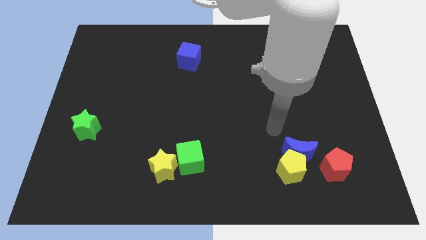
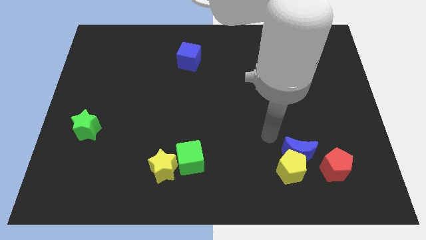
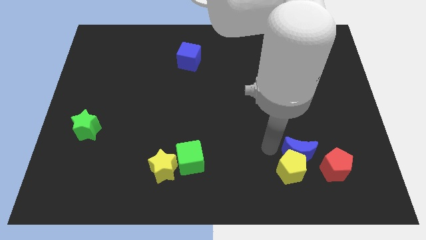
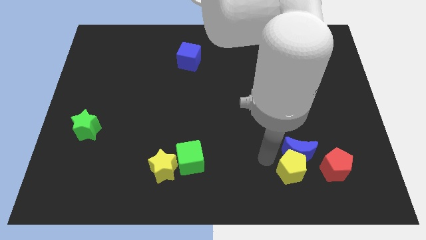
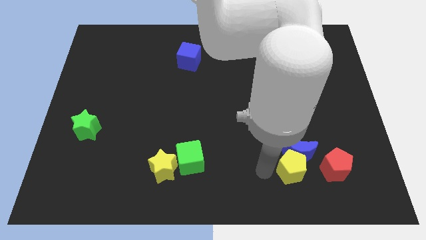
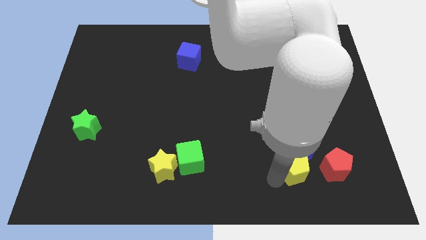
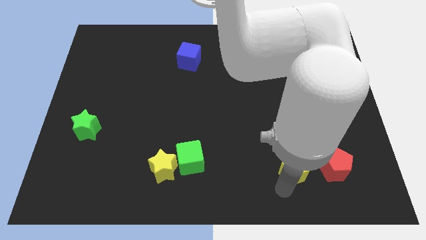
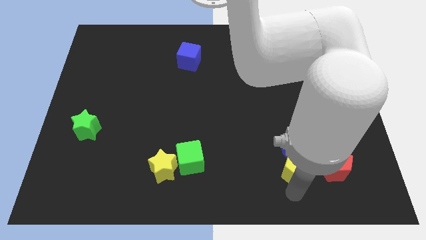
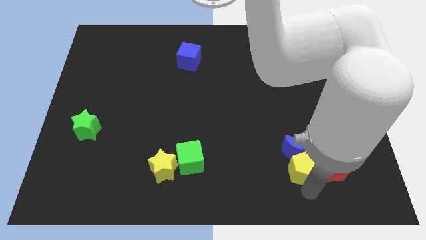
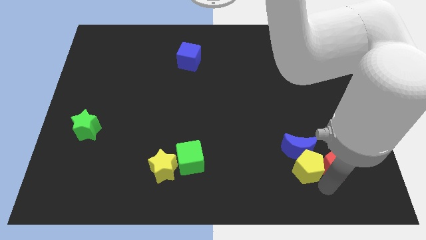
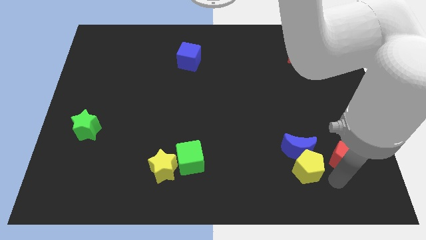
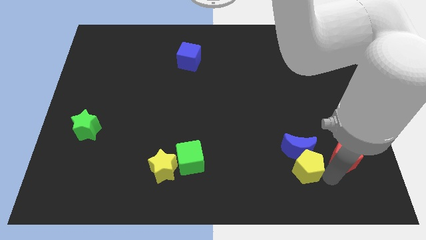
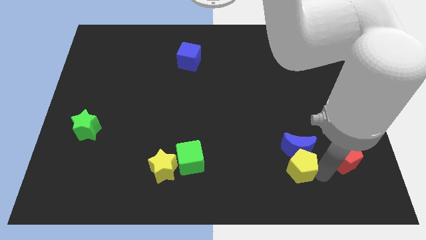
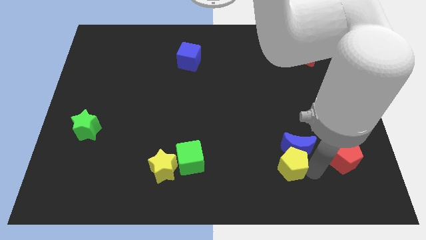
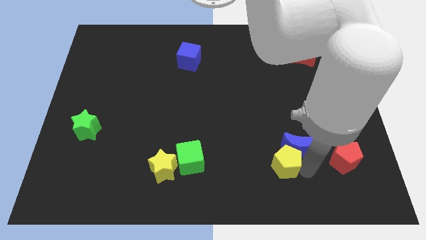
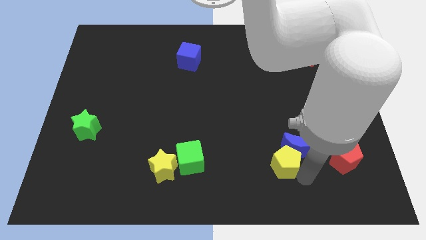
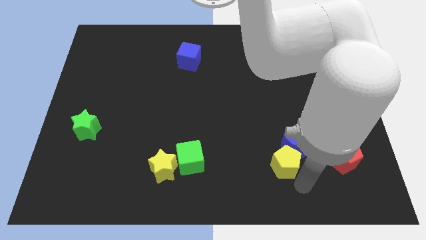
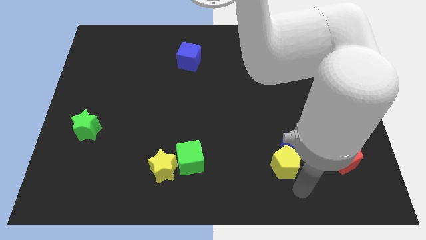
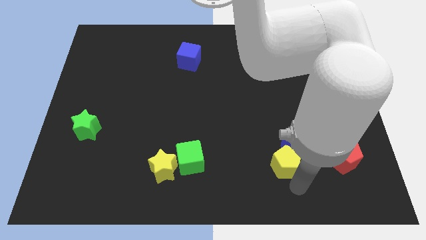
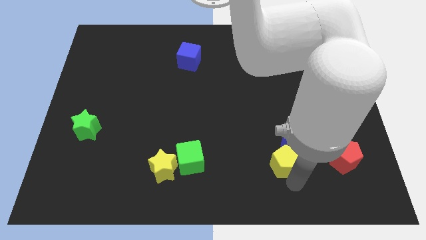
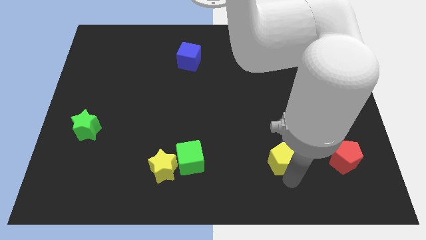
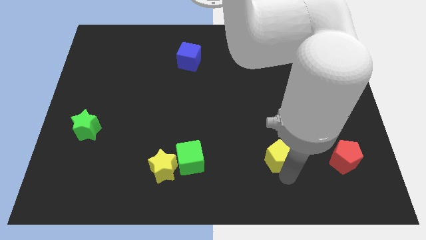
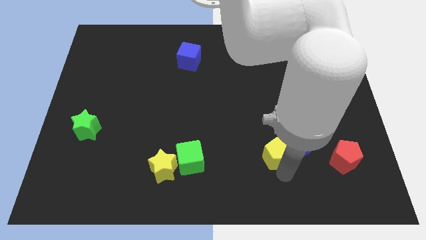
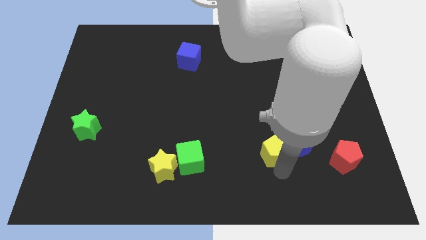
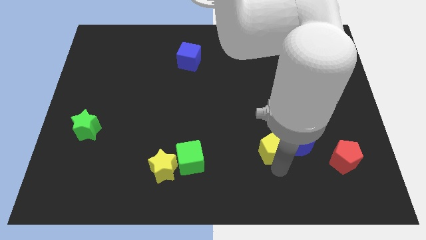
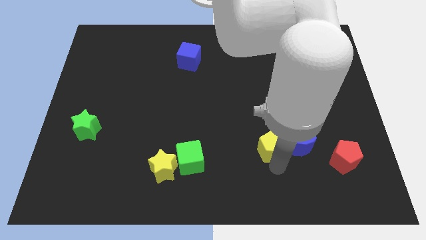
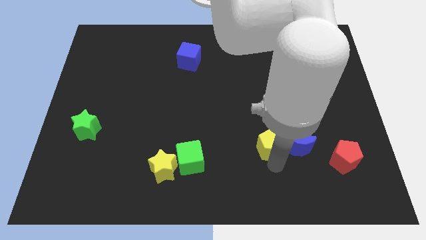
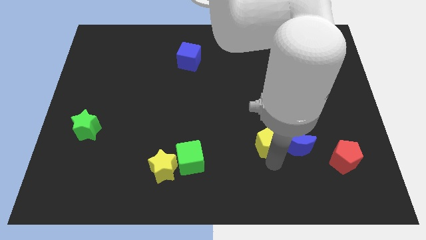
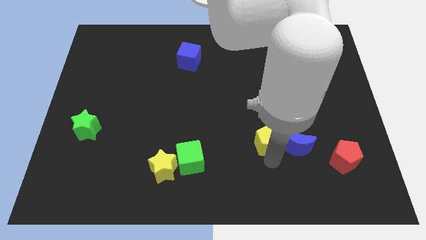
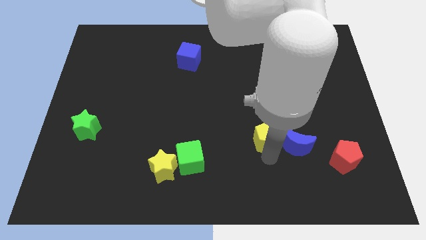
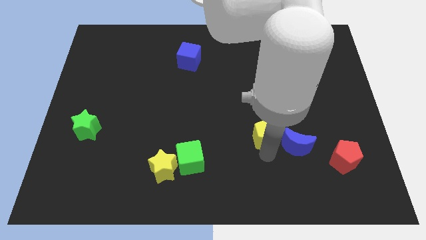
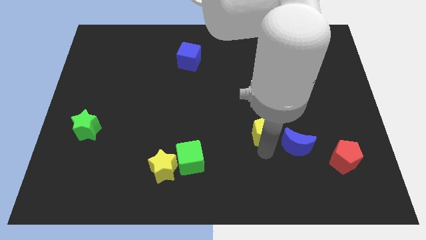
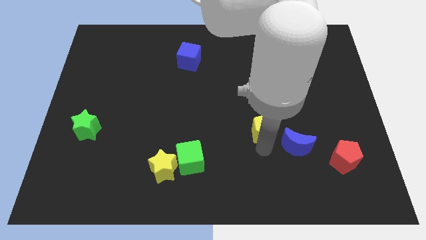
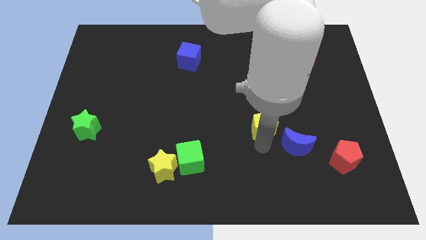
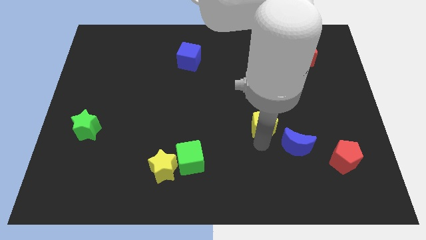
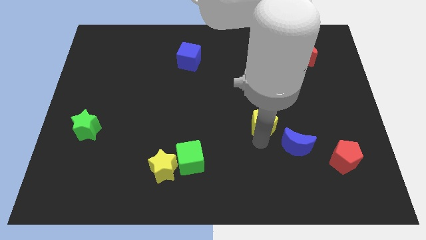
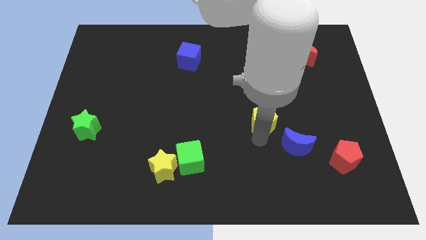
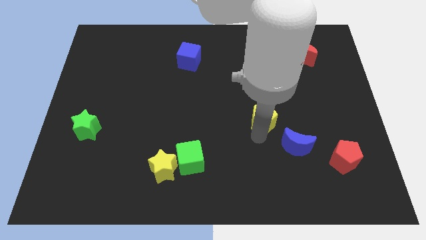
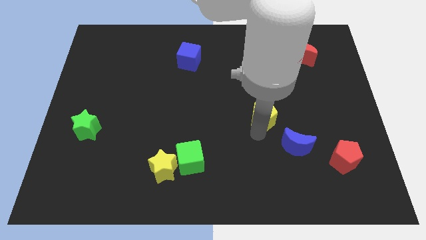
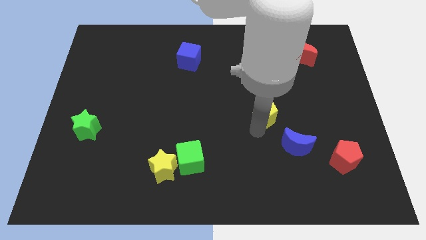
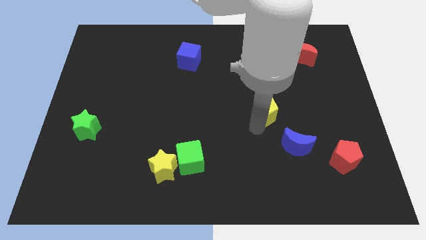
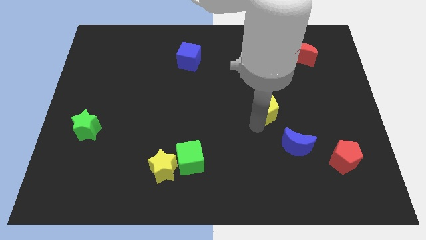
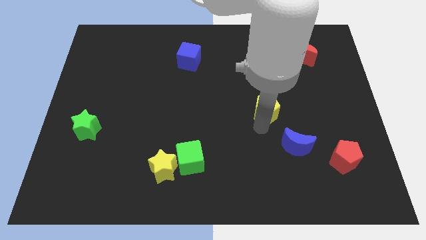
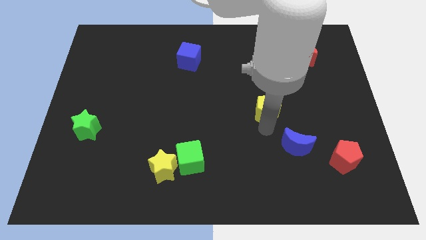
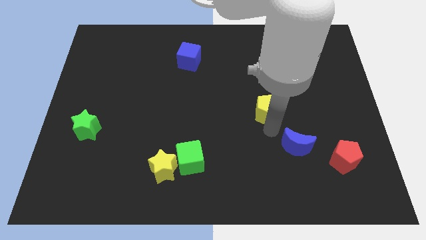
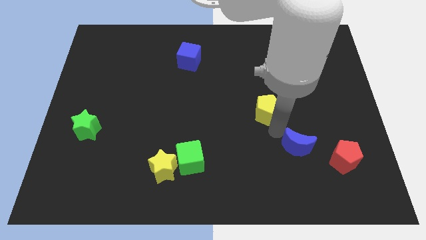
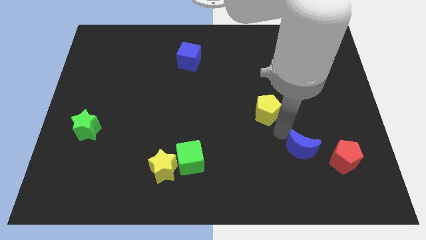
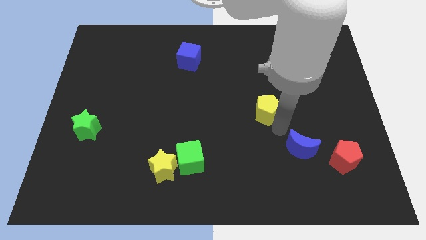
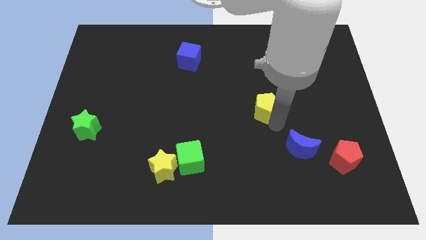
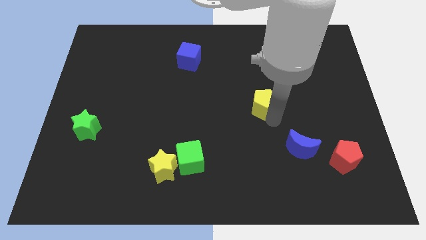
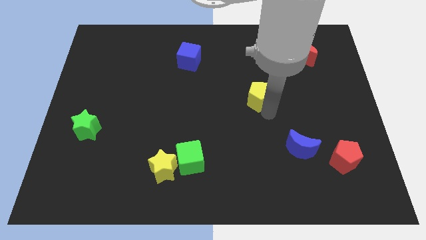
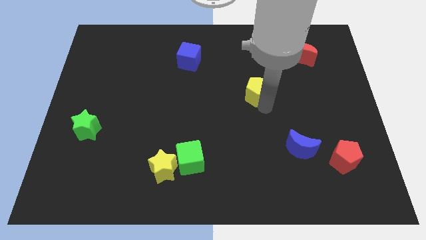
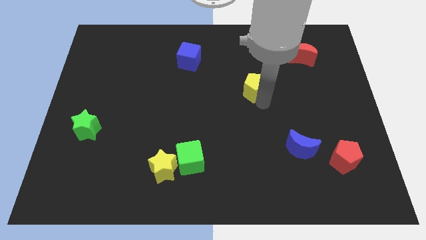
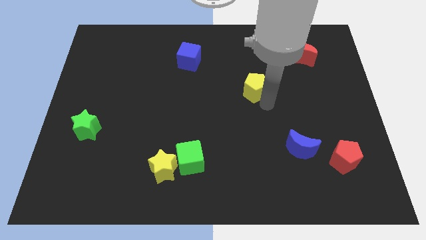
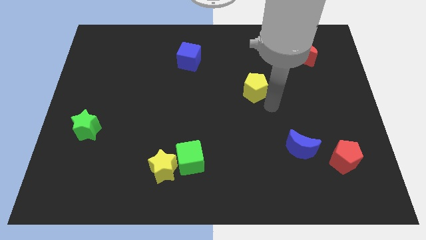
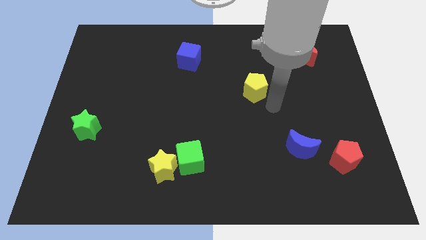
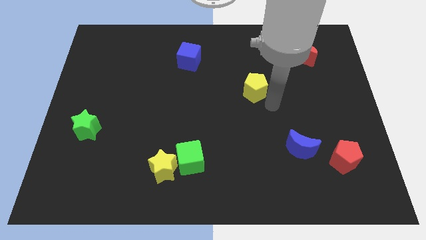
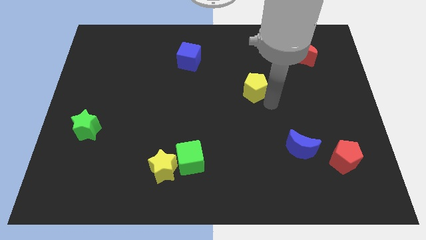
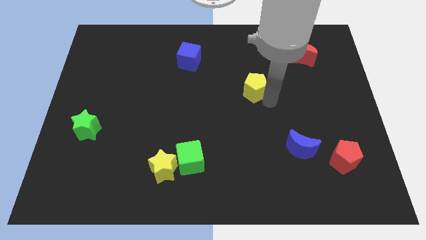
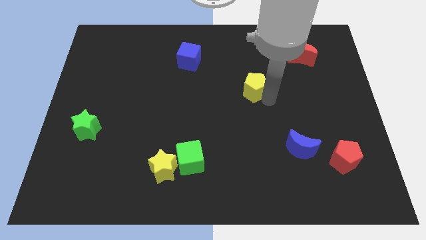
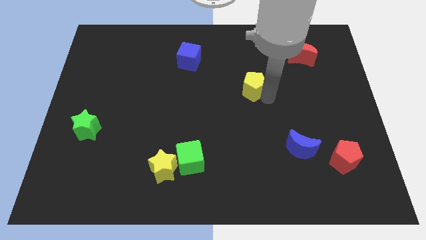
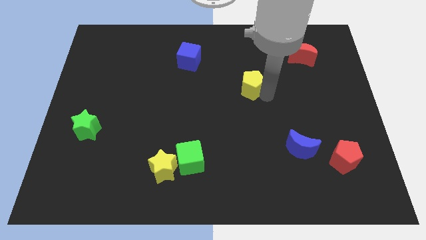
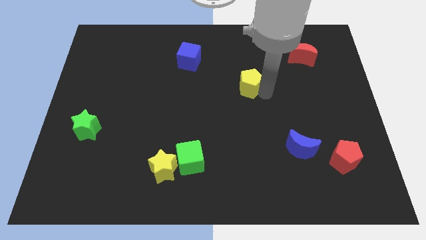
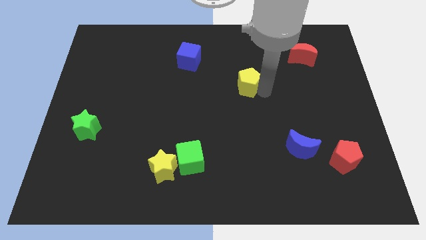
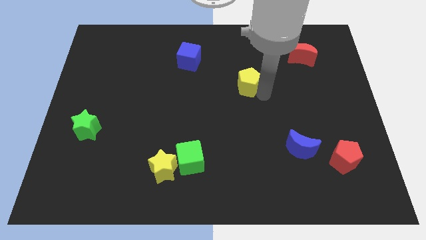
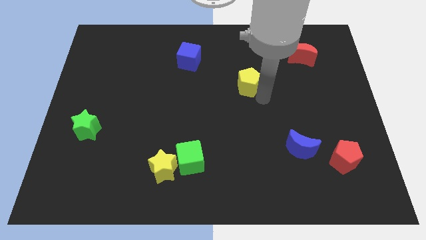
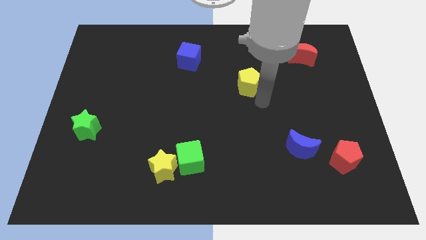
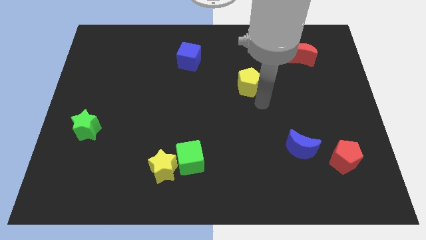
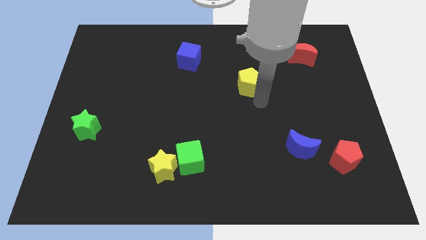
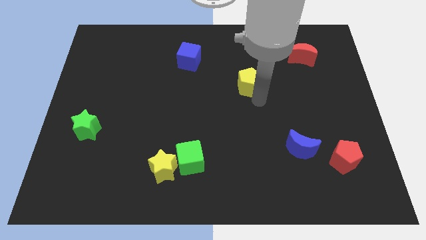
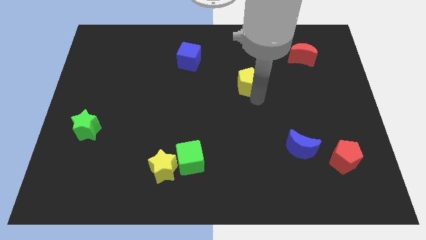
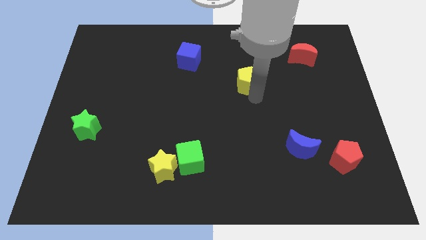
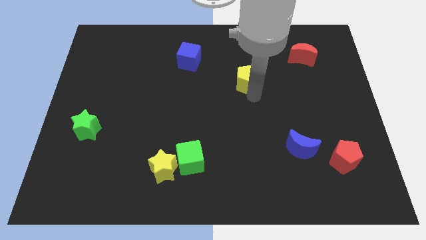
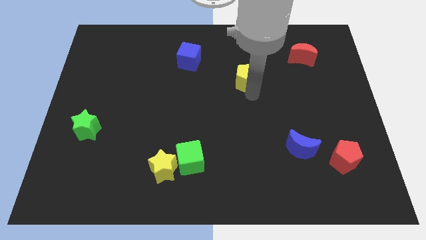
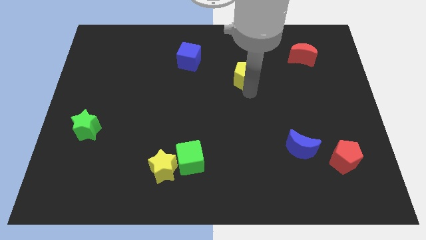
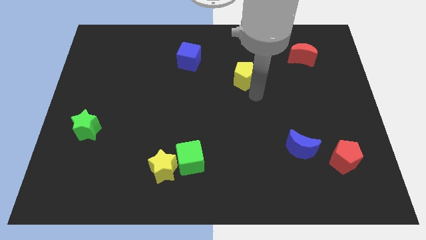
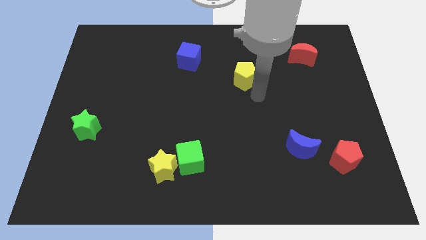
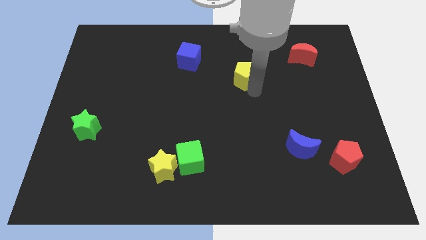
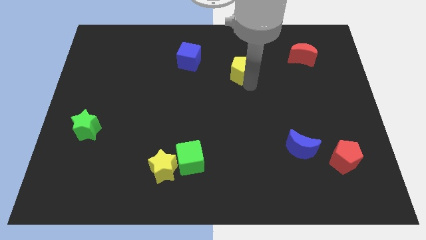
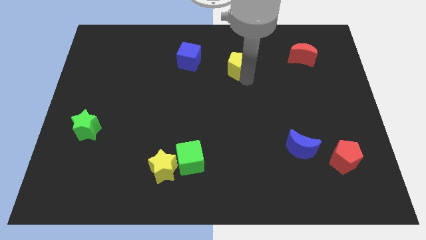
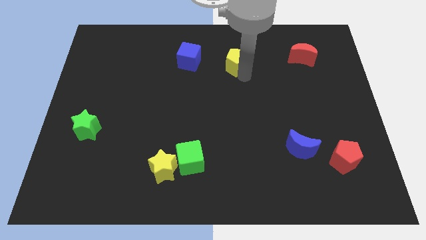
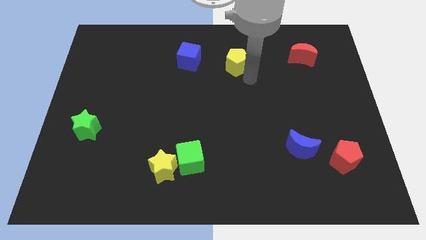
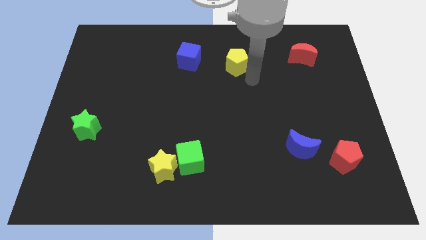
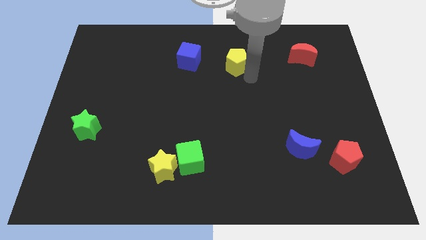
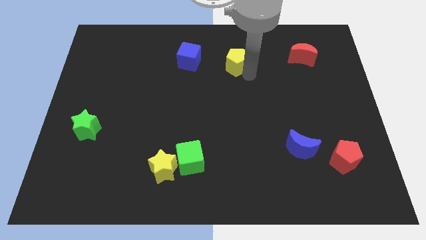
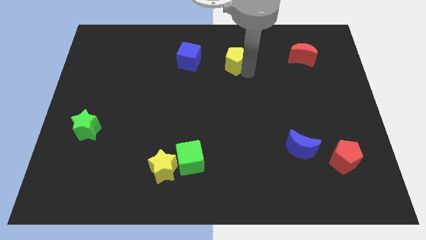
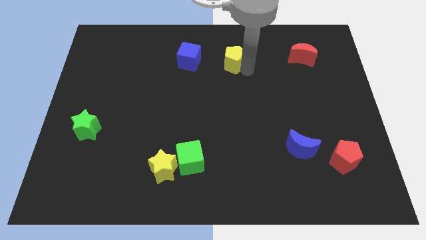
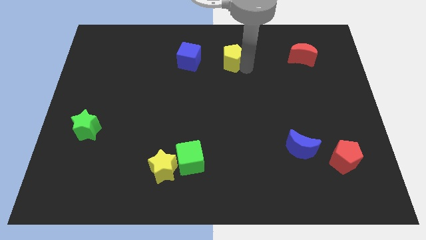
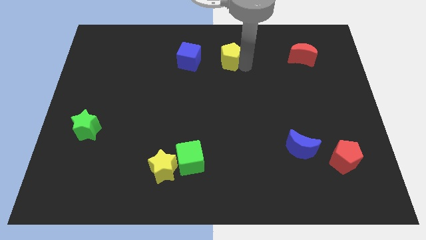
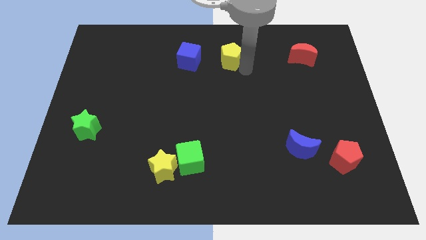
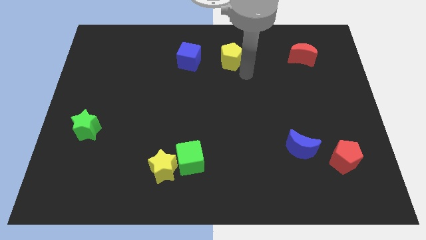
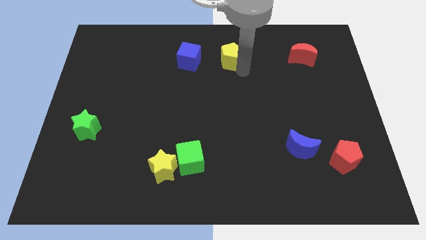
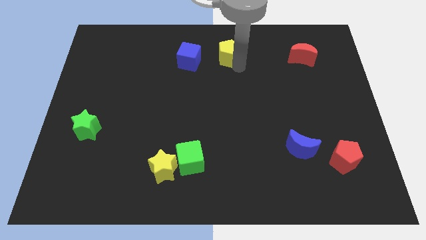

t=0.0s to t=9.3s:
slide the yellow pentagon to the top side
